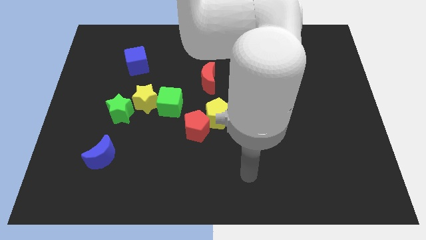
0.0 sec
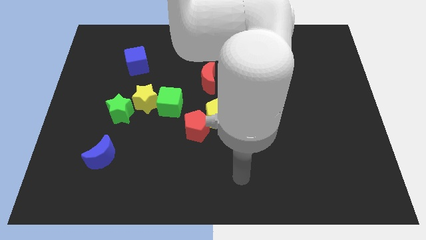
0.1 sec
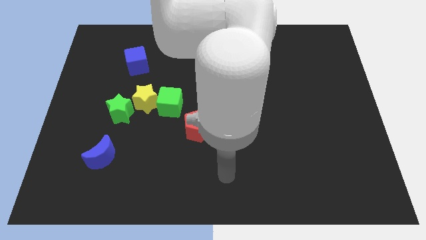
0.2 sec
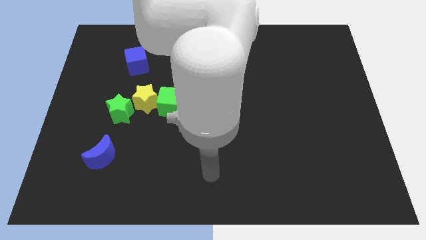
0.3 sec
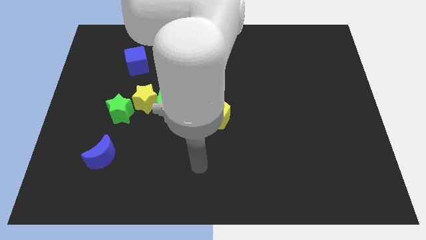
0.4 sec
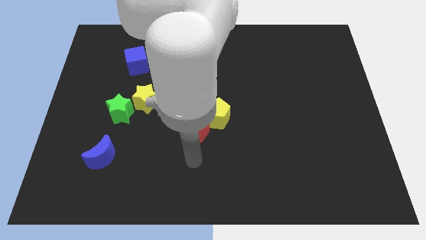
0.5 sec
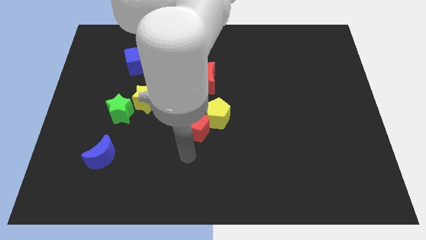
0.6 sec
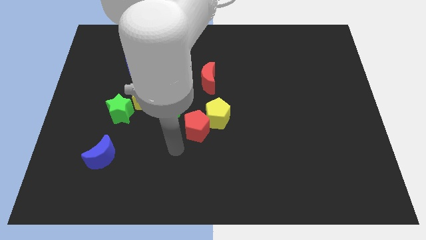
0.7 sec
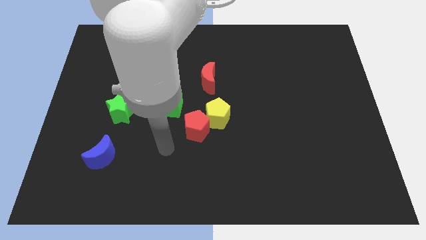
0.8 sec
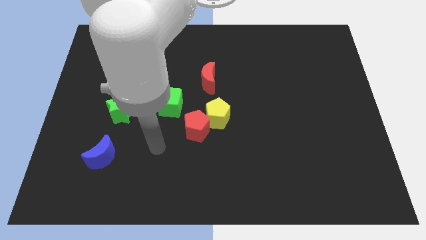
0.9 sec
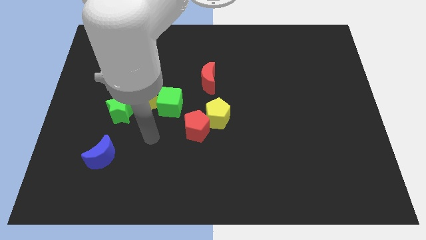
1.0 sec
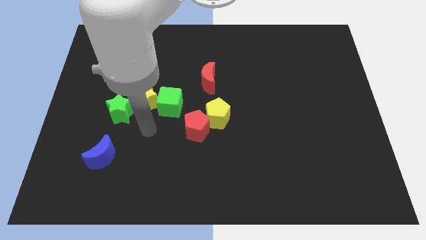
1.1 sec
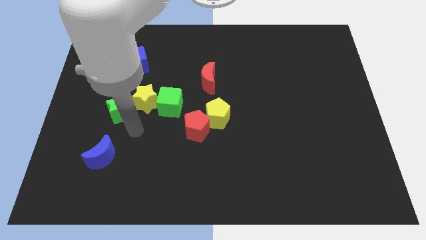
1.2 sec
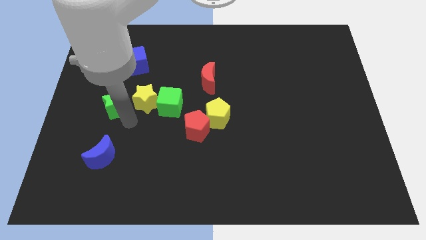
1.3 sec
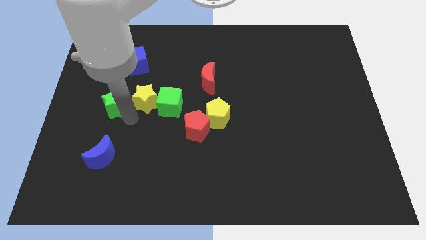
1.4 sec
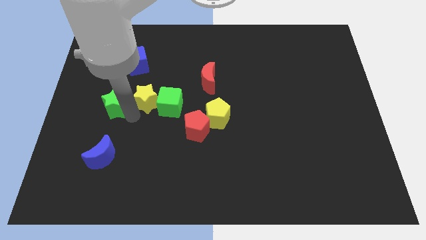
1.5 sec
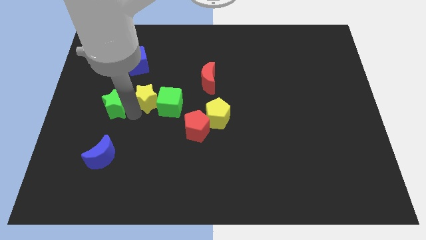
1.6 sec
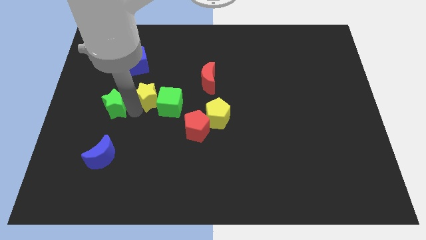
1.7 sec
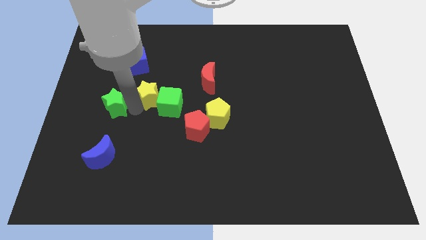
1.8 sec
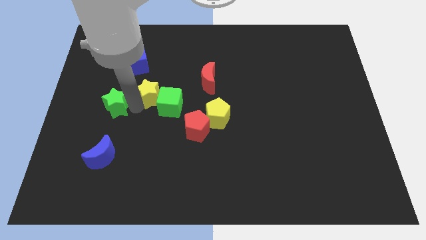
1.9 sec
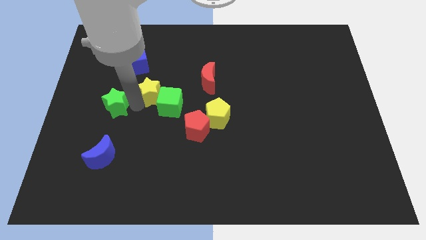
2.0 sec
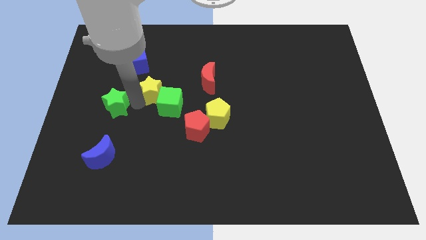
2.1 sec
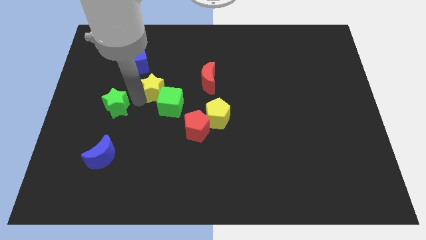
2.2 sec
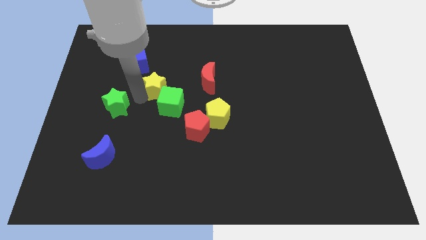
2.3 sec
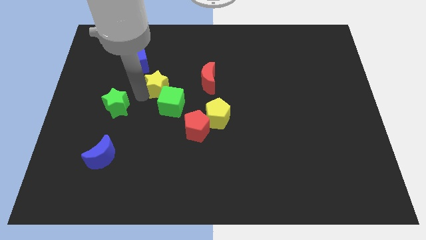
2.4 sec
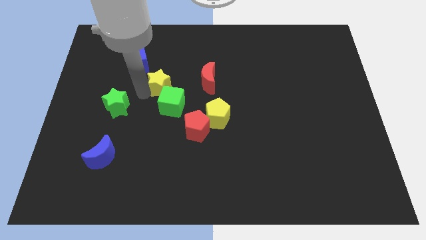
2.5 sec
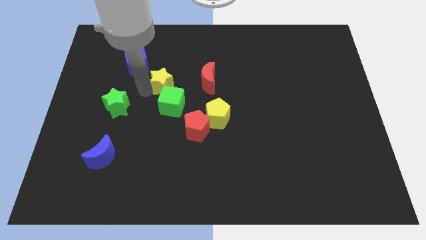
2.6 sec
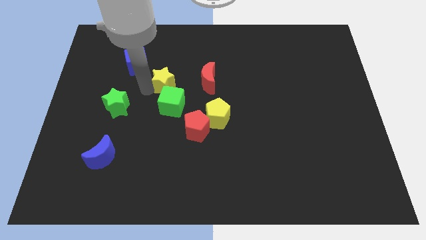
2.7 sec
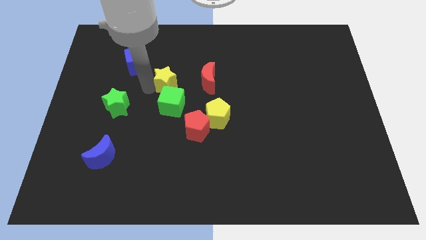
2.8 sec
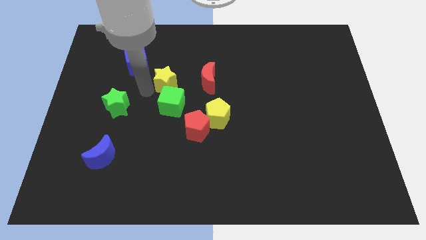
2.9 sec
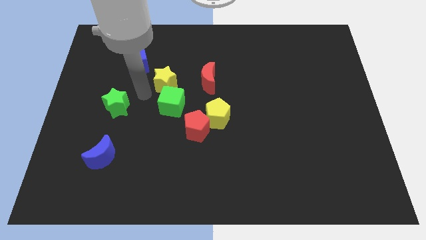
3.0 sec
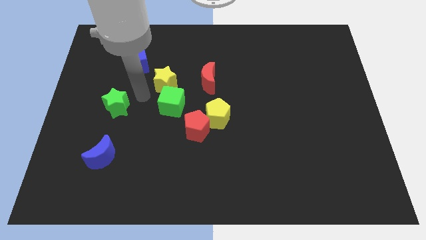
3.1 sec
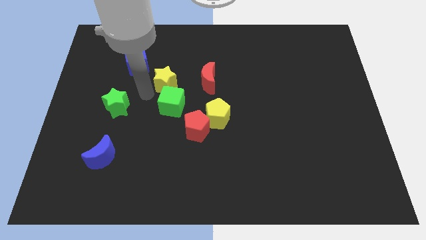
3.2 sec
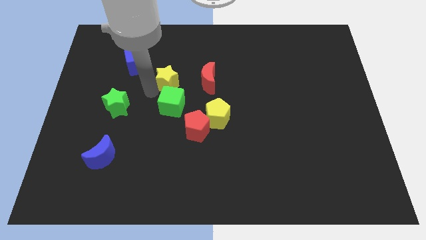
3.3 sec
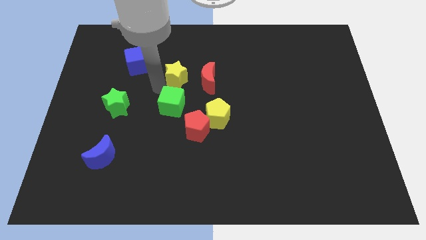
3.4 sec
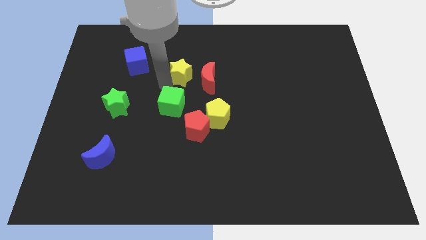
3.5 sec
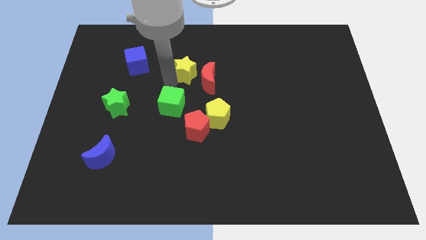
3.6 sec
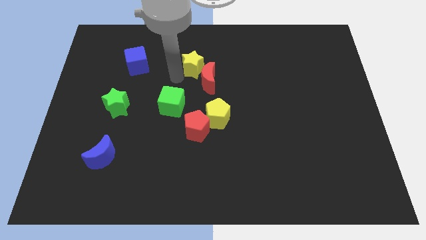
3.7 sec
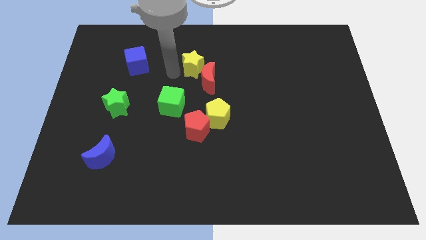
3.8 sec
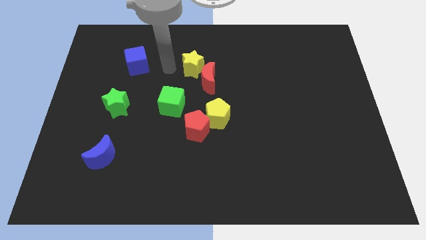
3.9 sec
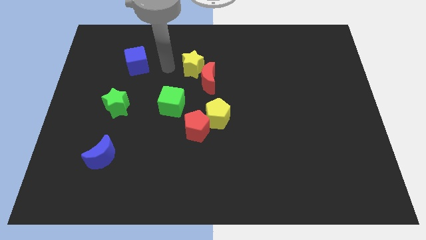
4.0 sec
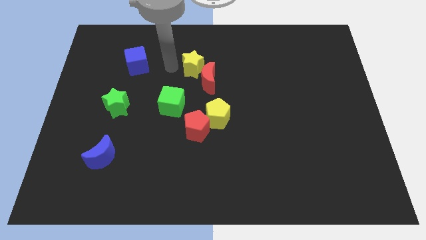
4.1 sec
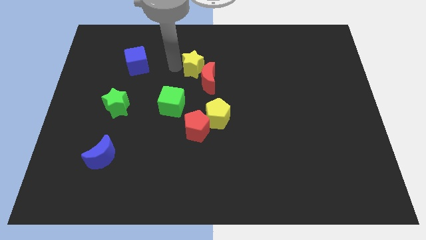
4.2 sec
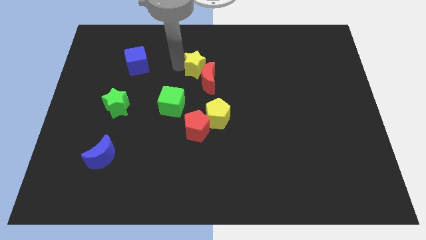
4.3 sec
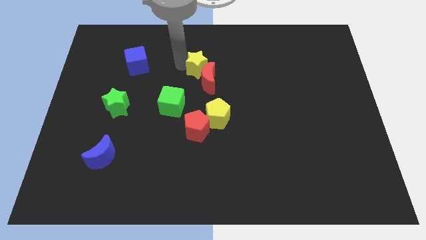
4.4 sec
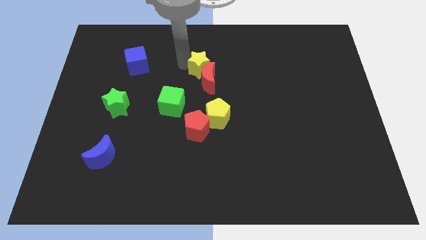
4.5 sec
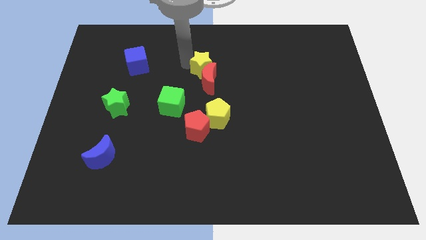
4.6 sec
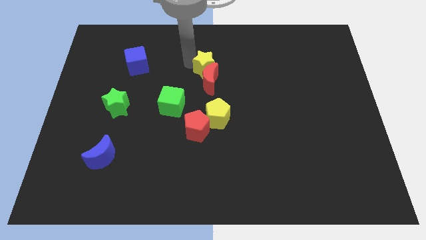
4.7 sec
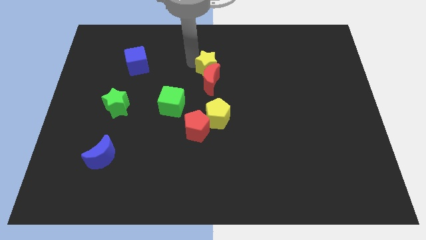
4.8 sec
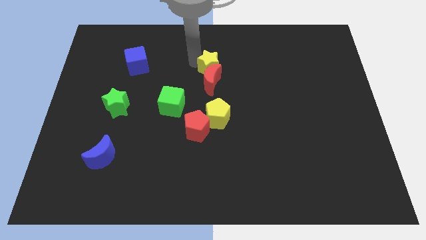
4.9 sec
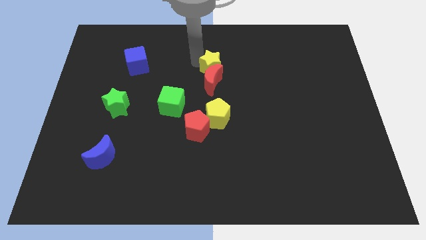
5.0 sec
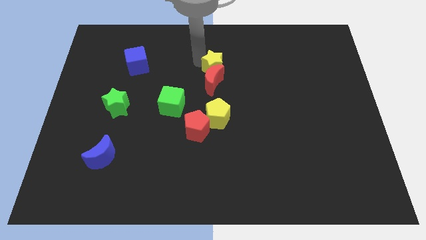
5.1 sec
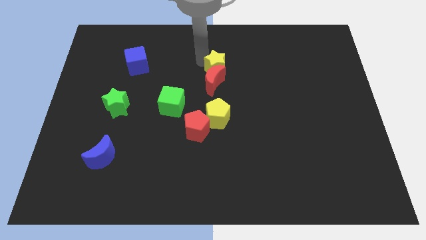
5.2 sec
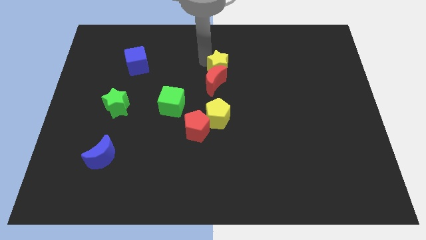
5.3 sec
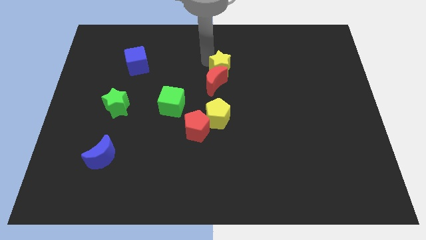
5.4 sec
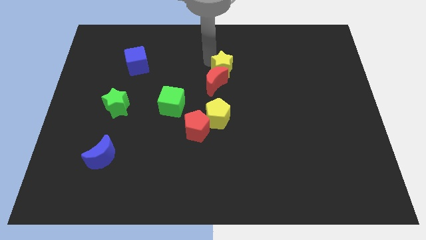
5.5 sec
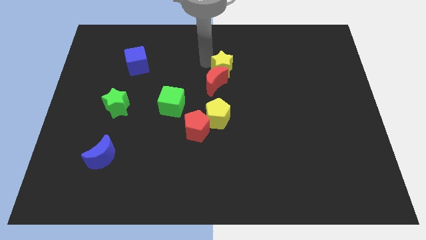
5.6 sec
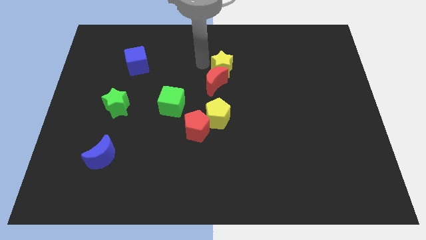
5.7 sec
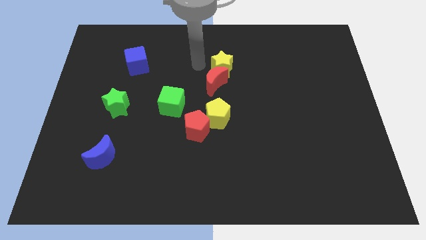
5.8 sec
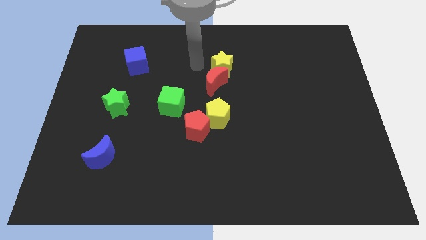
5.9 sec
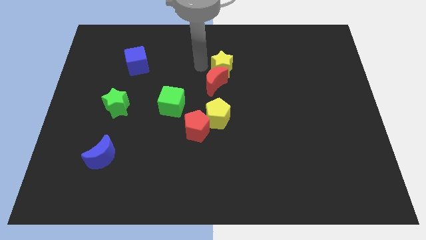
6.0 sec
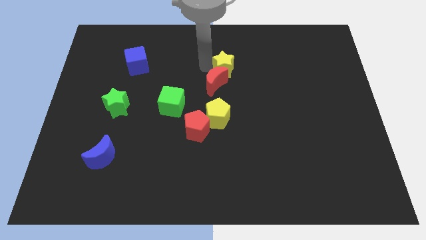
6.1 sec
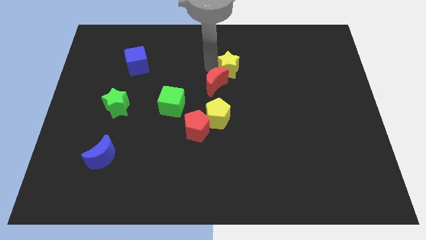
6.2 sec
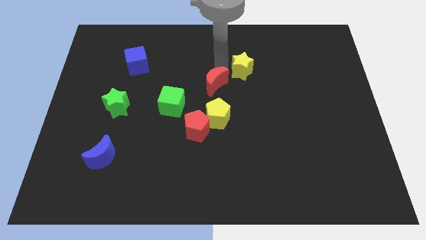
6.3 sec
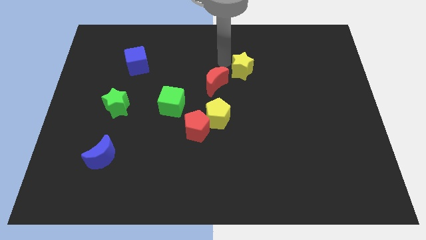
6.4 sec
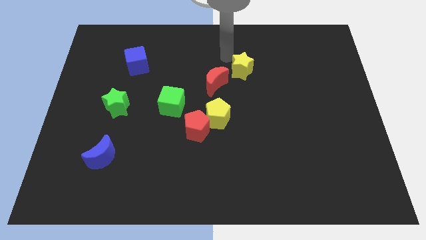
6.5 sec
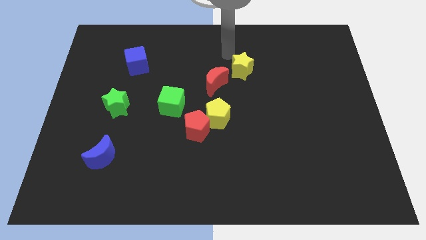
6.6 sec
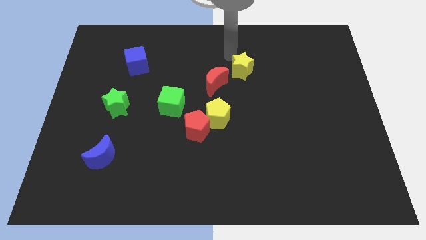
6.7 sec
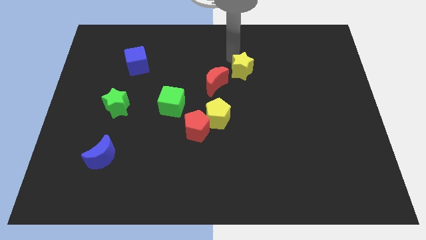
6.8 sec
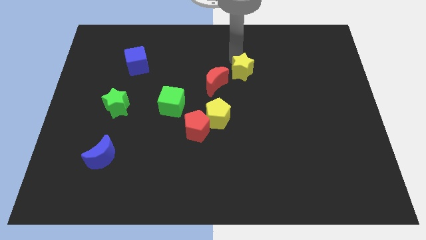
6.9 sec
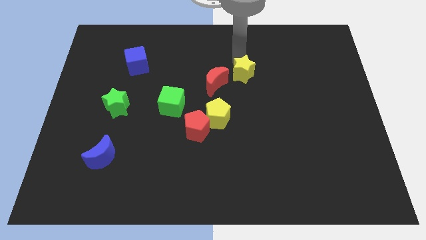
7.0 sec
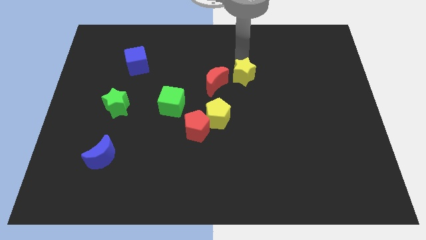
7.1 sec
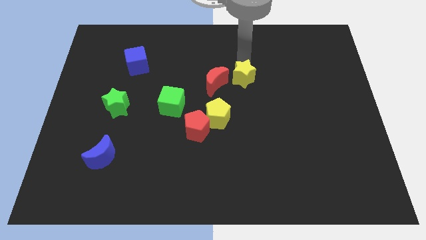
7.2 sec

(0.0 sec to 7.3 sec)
move the yellow star right

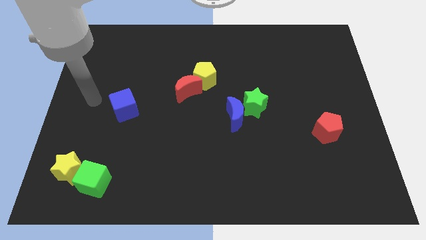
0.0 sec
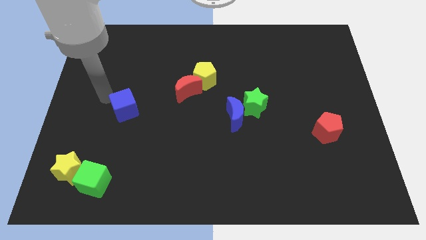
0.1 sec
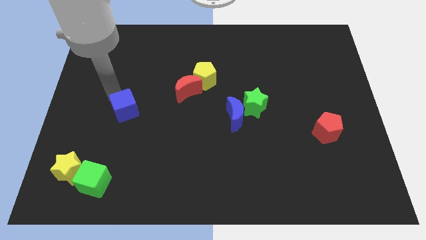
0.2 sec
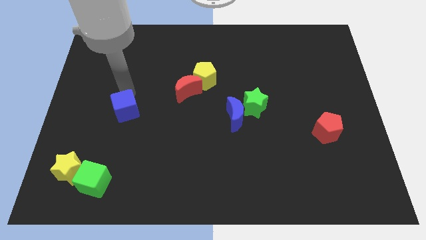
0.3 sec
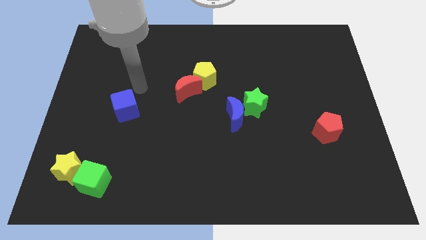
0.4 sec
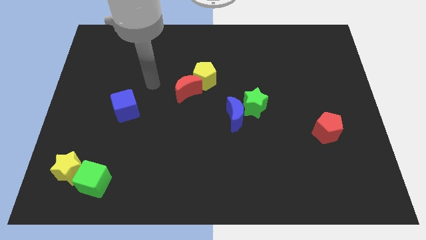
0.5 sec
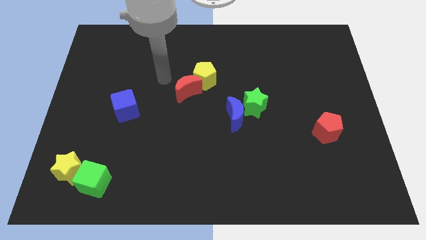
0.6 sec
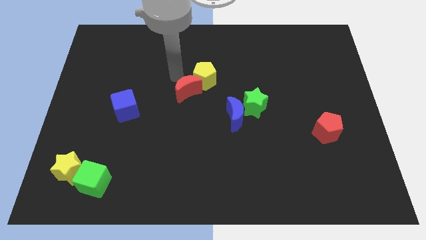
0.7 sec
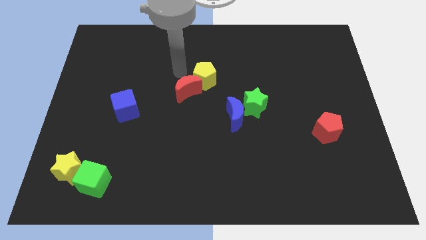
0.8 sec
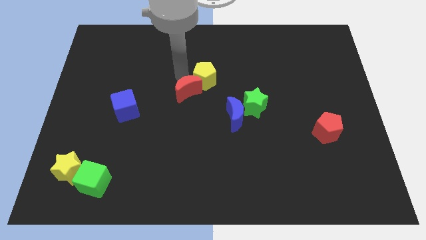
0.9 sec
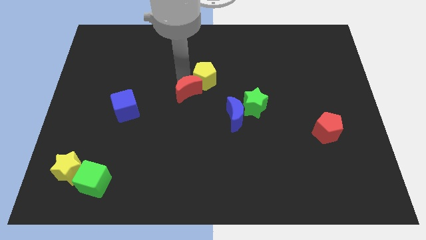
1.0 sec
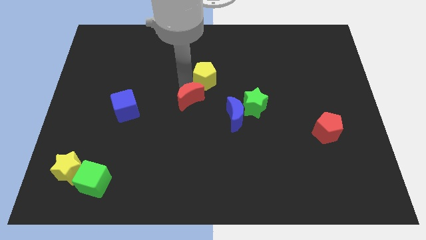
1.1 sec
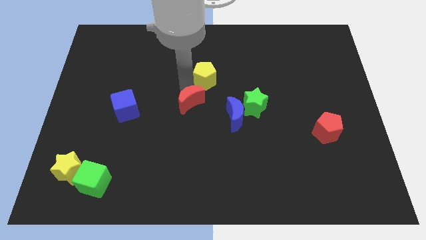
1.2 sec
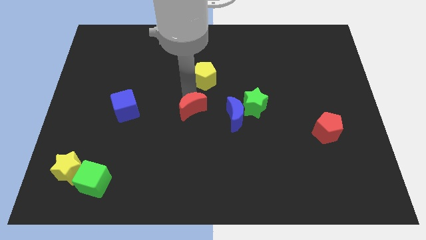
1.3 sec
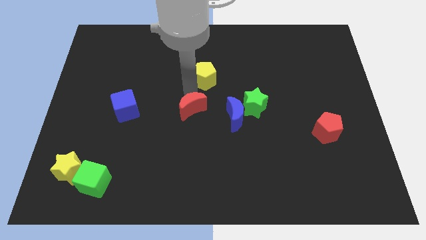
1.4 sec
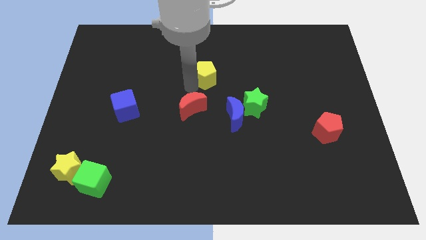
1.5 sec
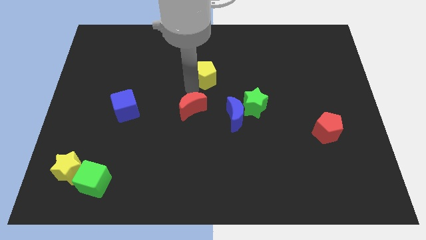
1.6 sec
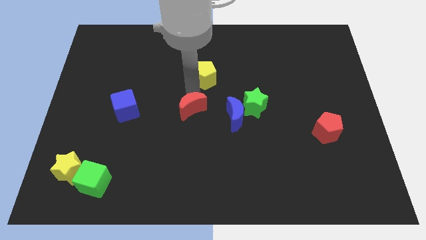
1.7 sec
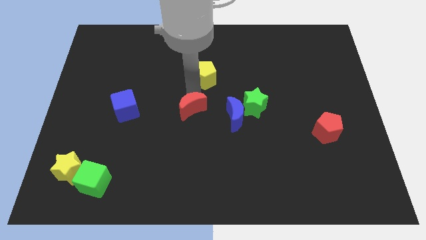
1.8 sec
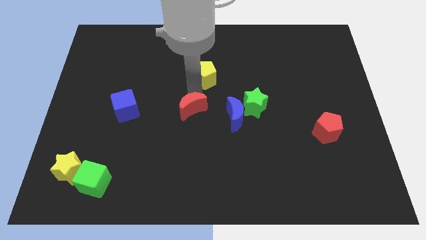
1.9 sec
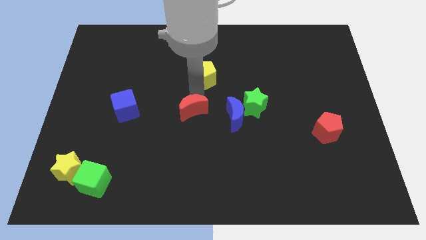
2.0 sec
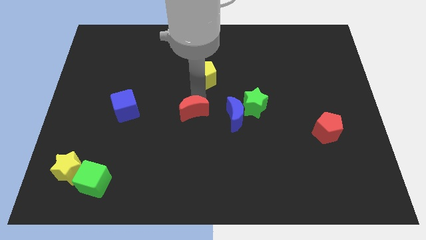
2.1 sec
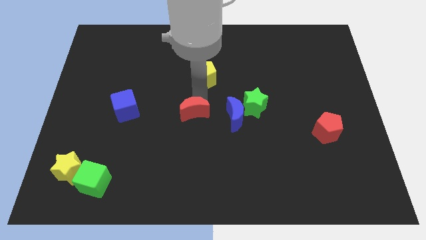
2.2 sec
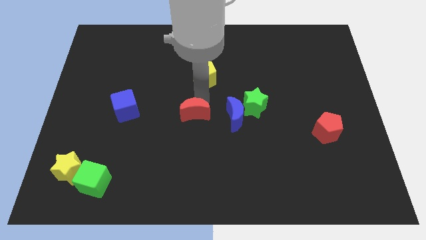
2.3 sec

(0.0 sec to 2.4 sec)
slide the red moon downwards a little bit
